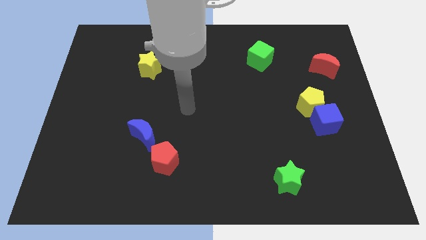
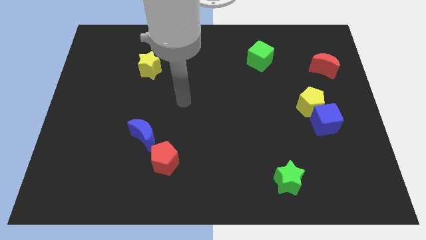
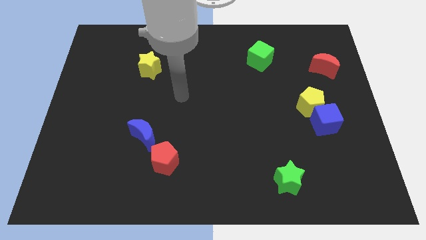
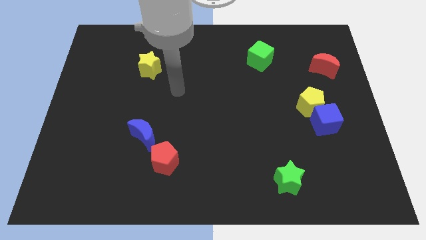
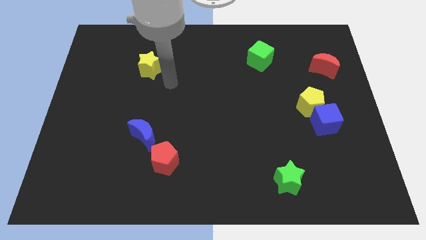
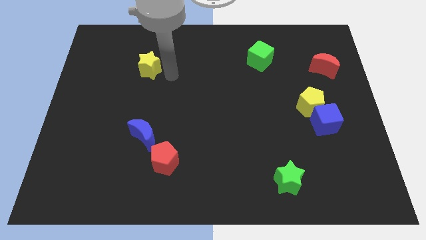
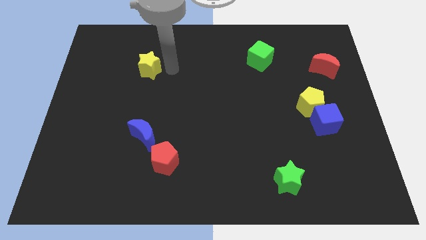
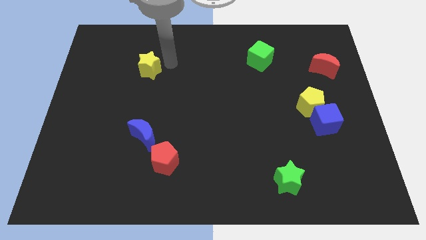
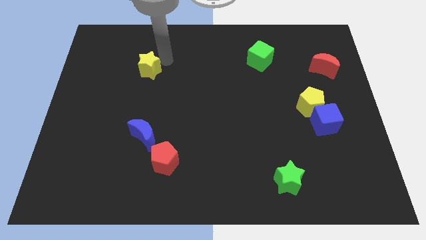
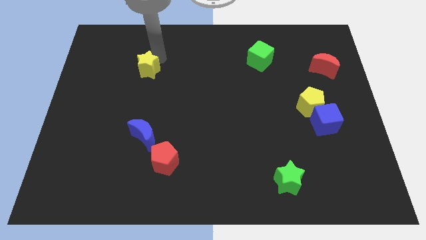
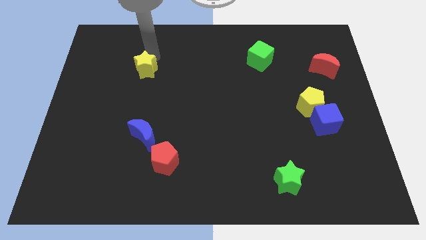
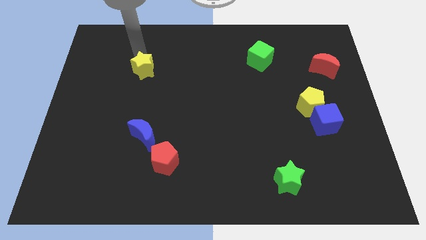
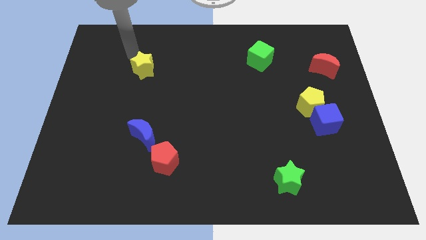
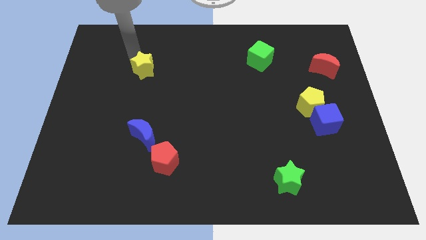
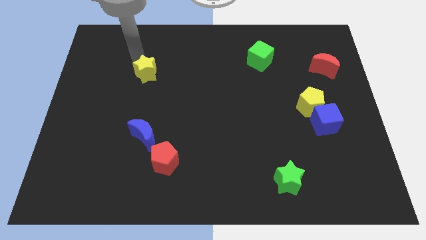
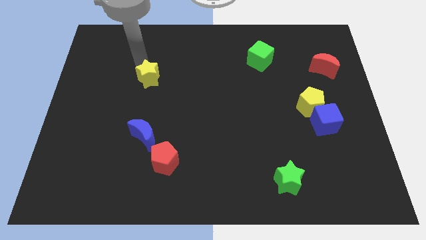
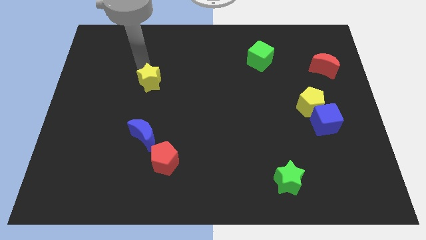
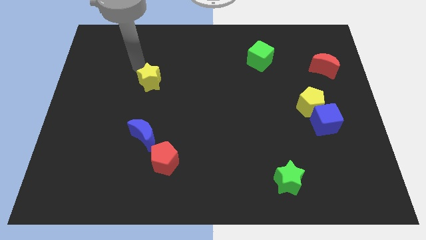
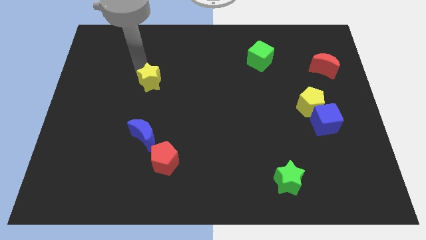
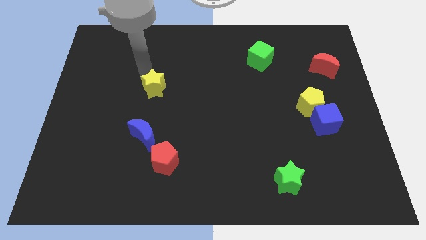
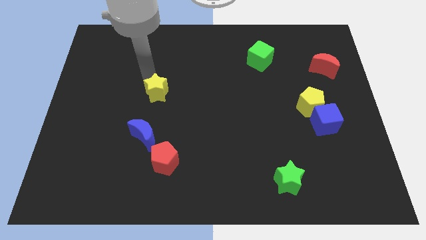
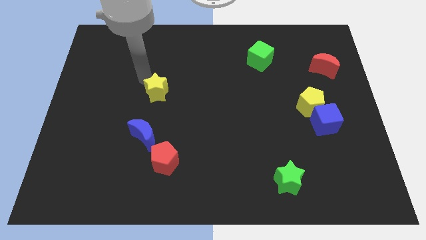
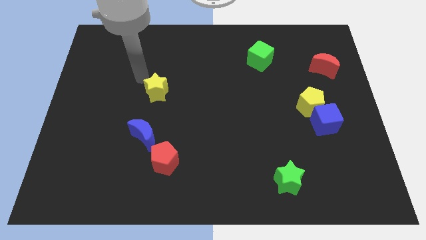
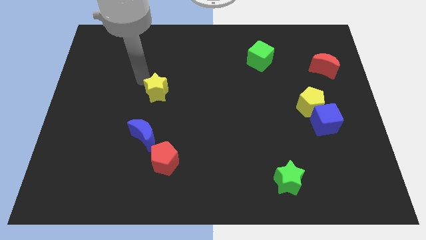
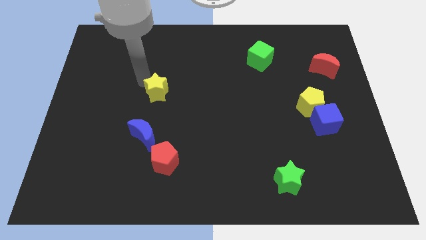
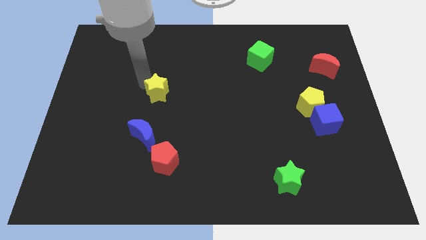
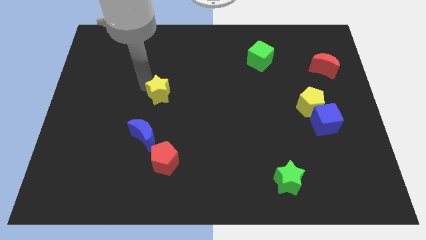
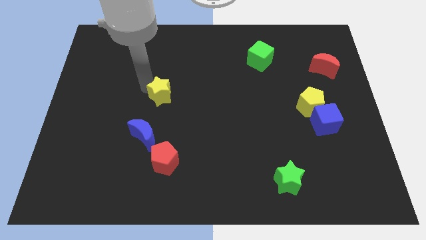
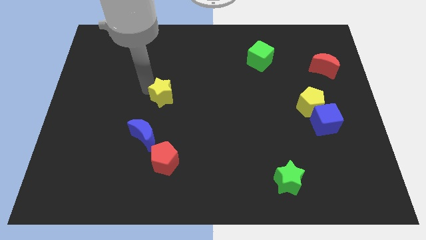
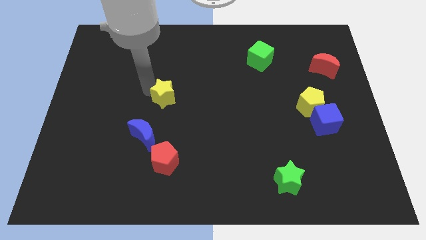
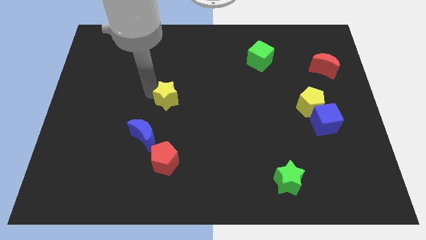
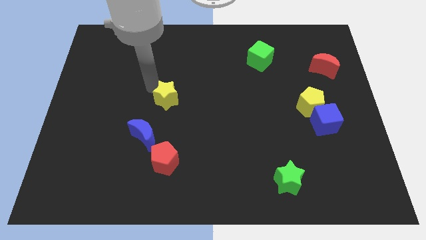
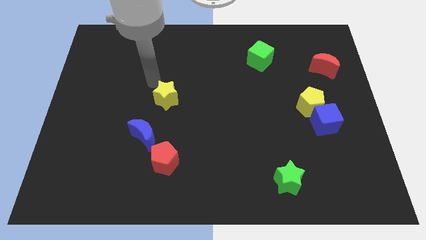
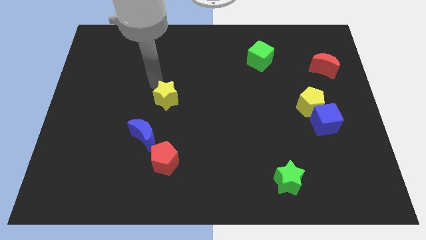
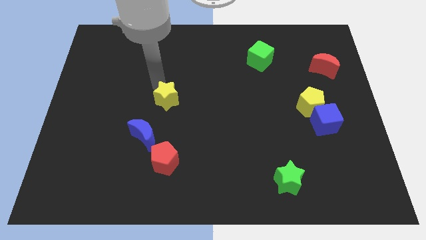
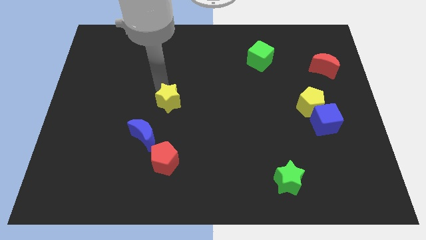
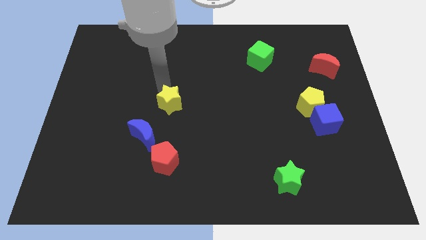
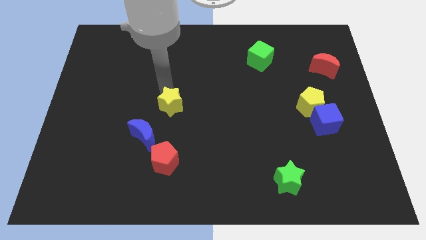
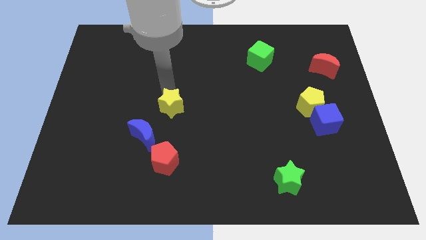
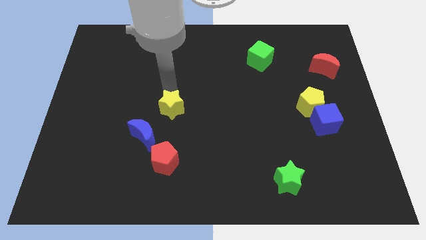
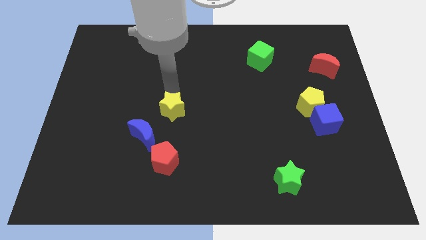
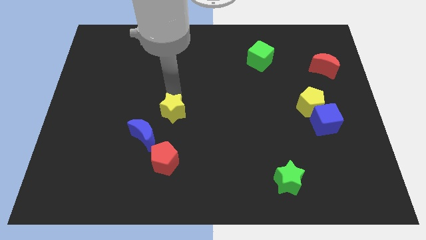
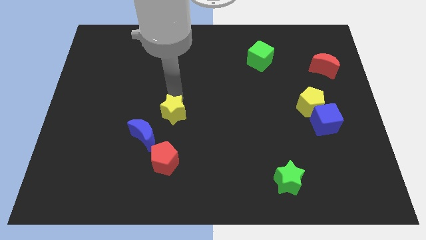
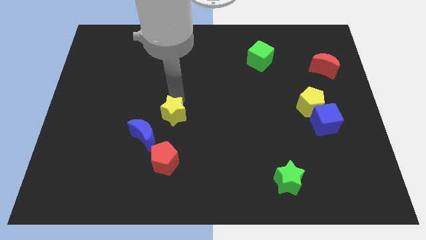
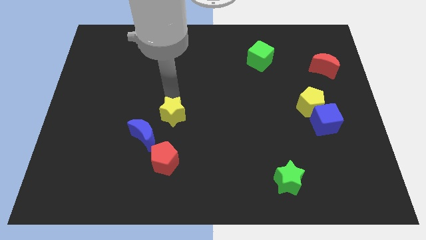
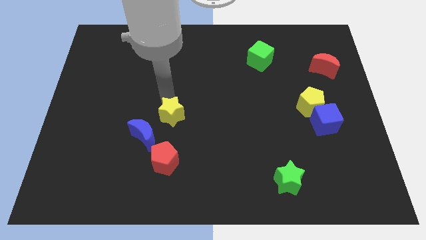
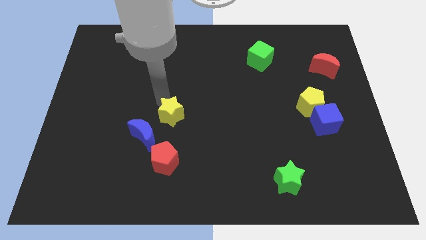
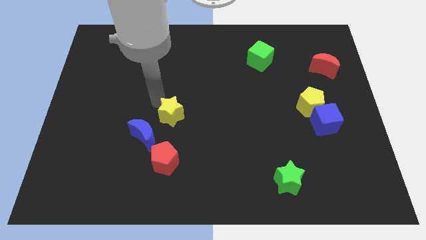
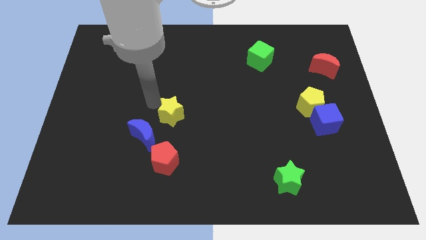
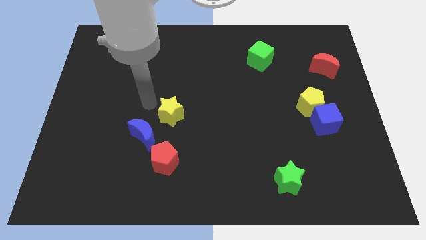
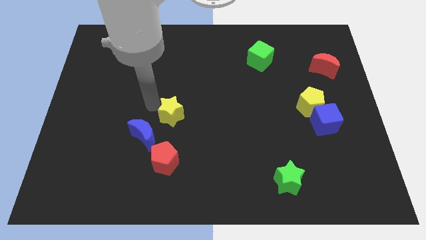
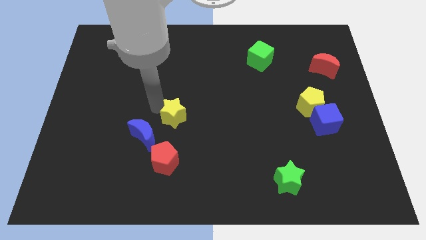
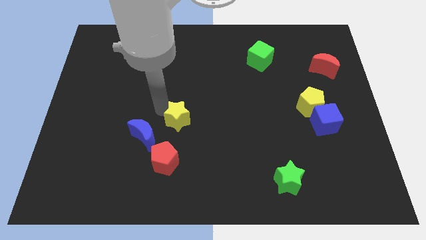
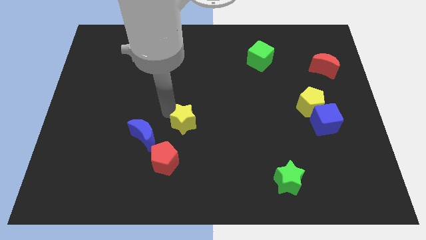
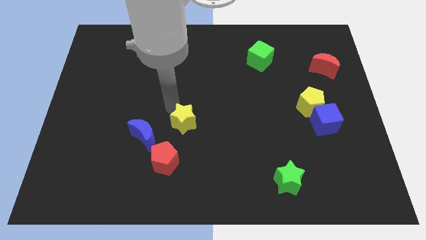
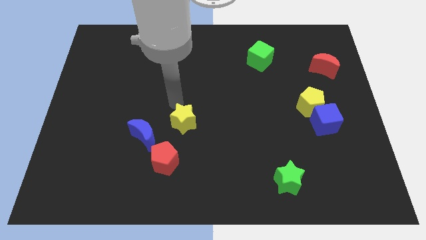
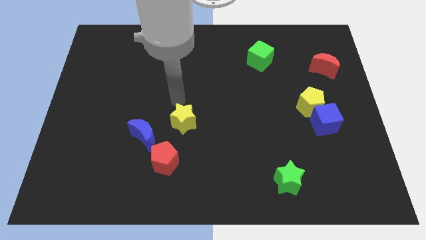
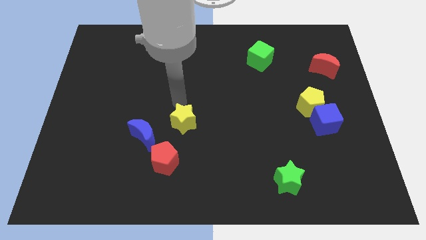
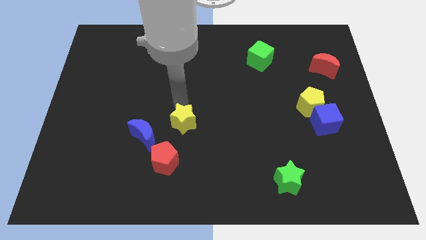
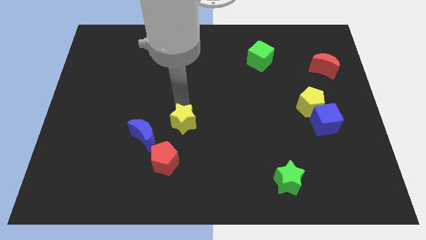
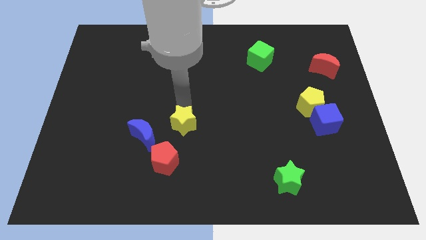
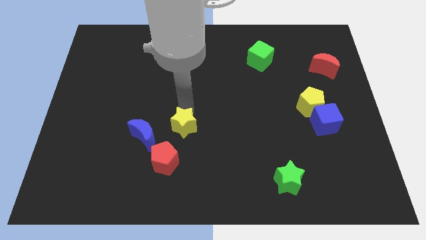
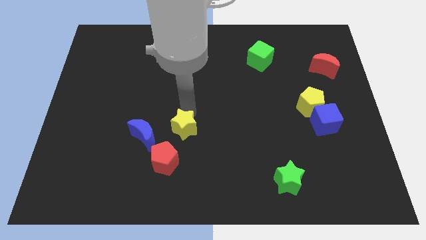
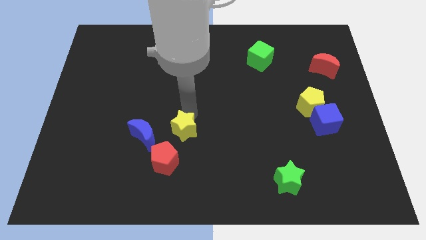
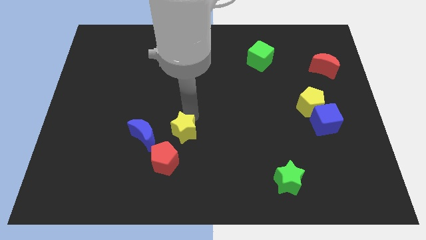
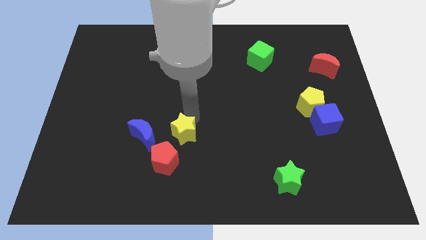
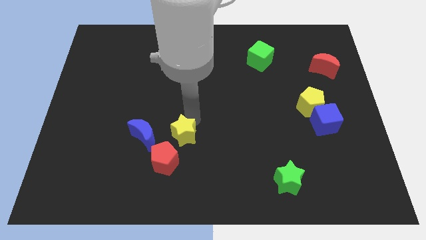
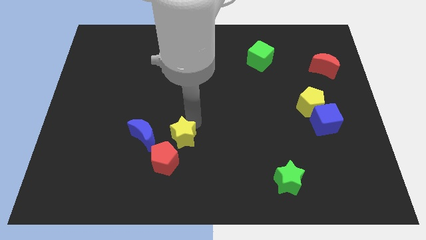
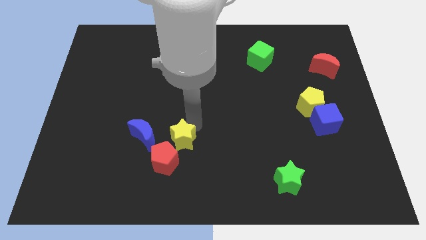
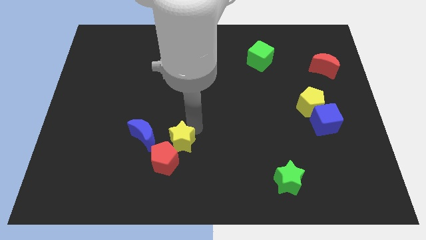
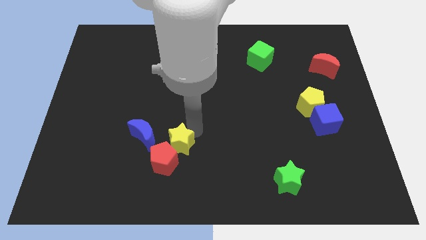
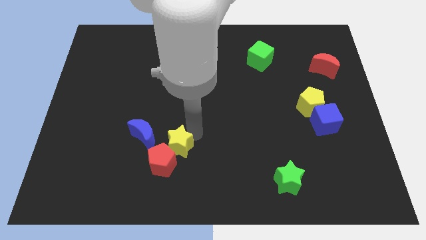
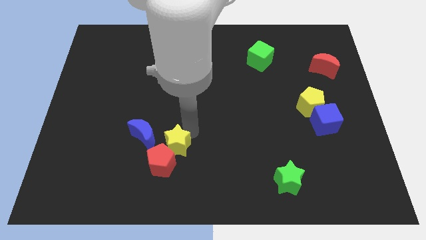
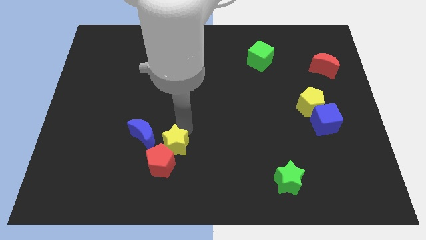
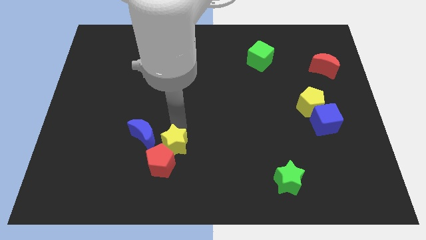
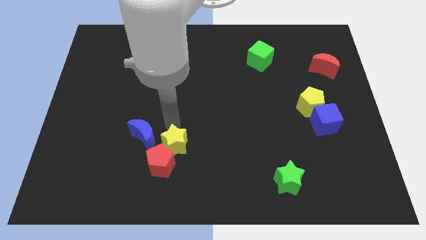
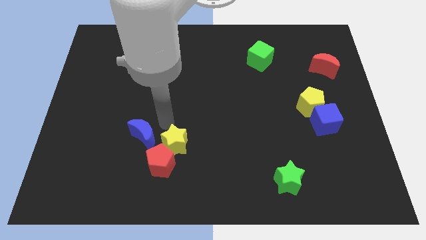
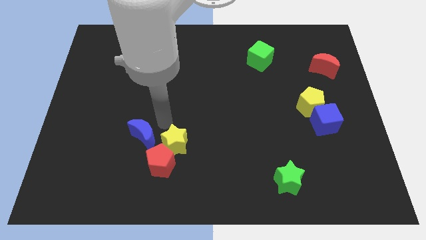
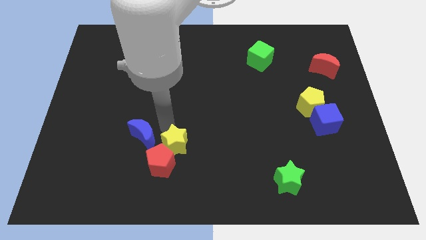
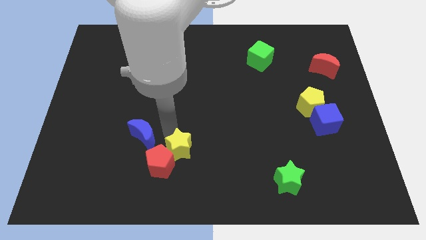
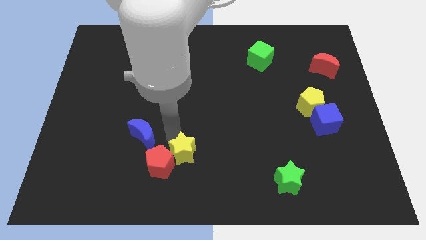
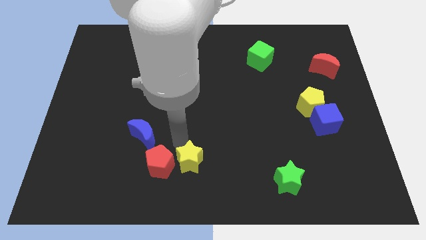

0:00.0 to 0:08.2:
put the yellow star to the bottom right of the red pentagon
